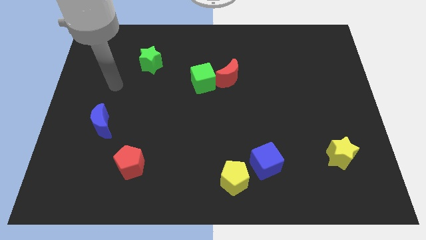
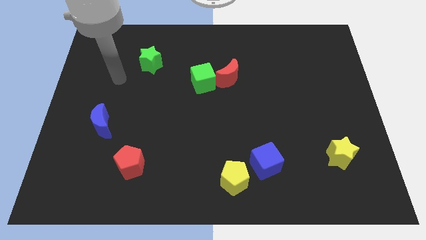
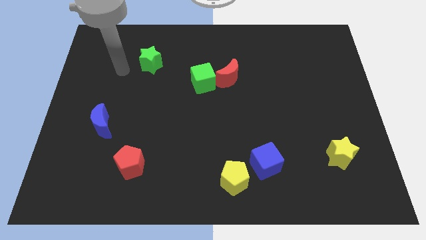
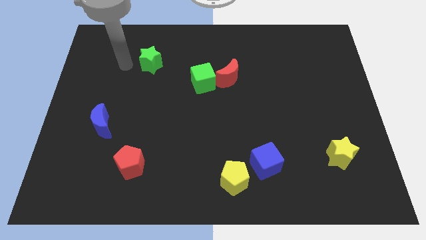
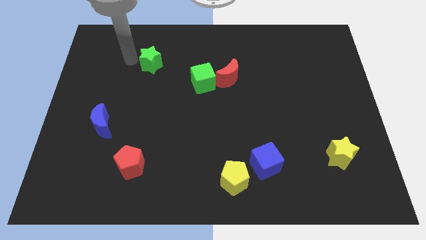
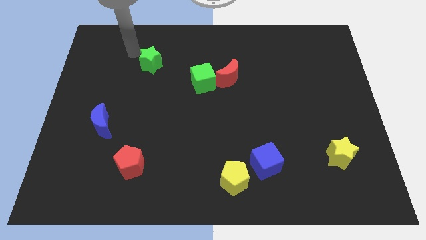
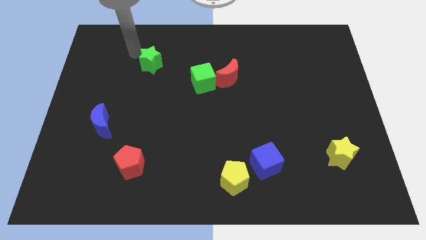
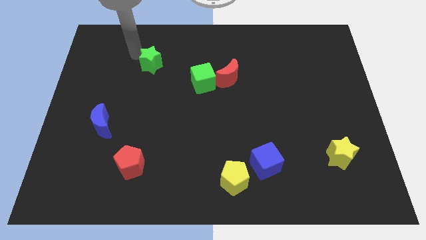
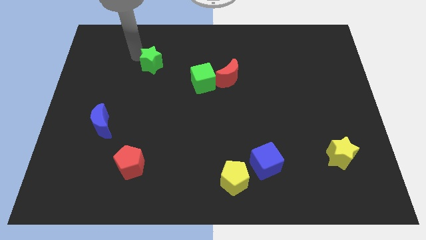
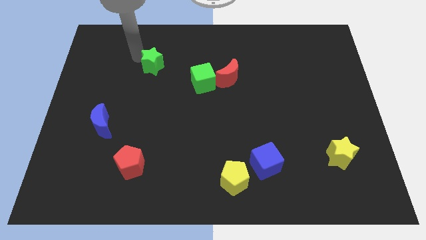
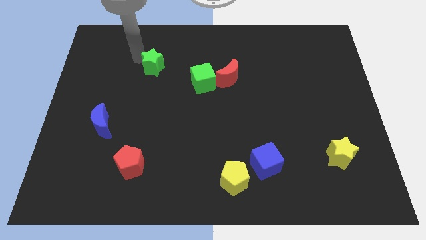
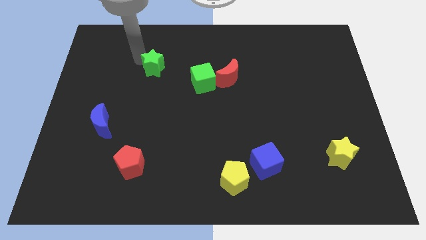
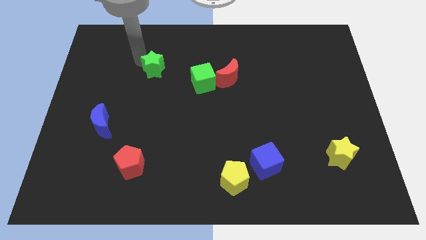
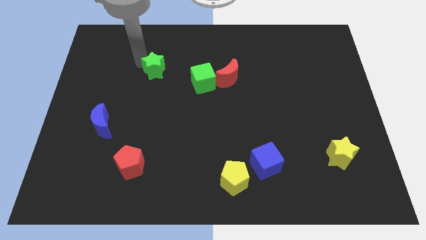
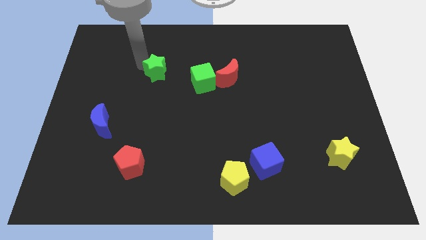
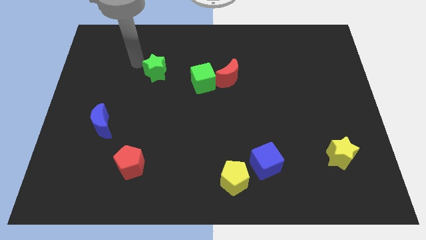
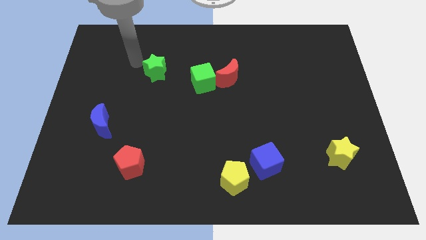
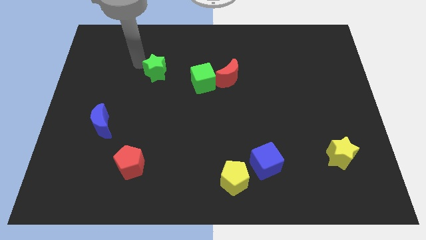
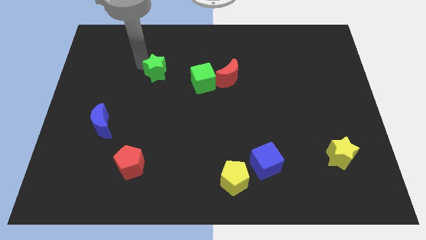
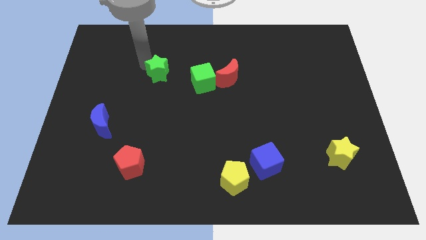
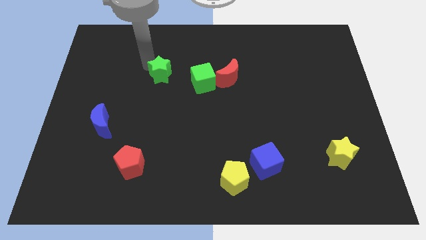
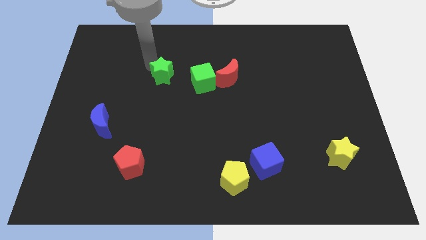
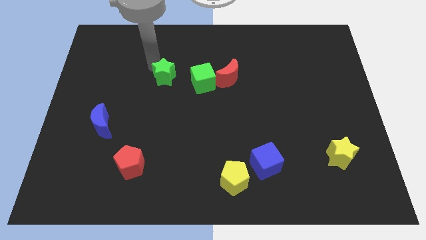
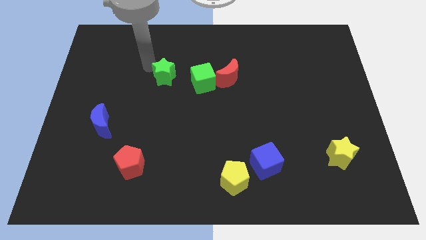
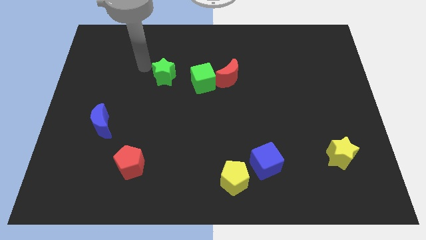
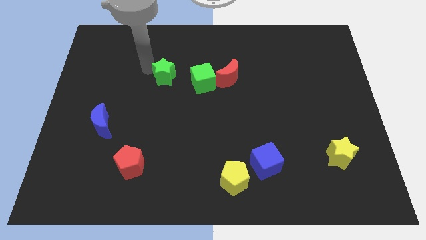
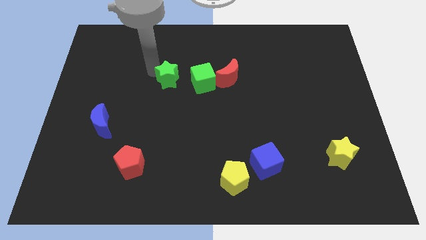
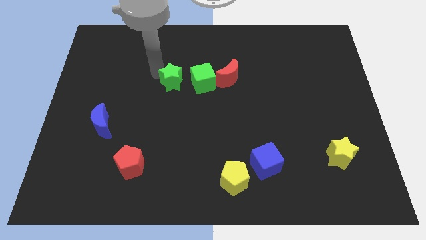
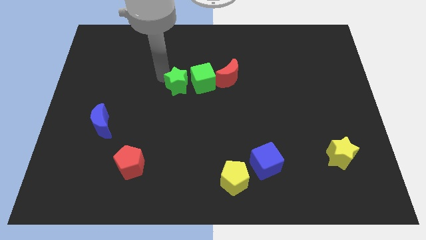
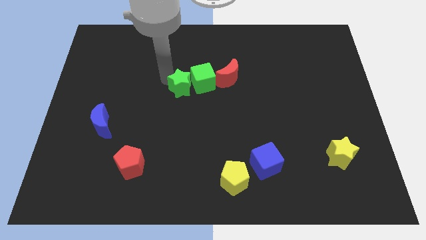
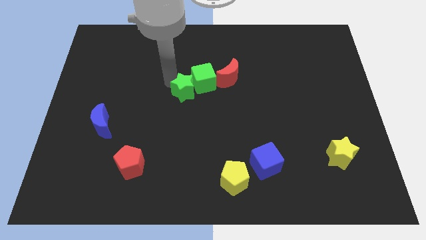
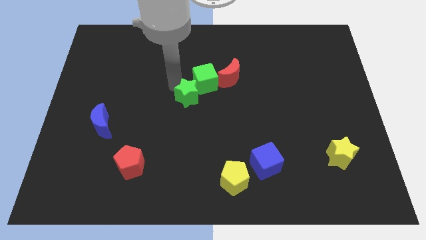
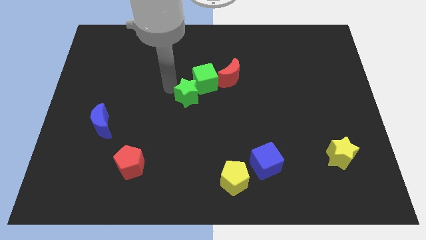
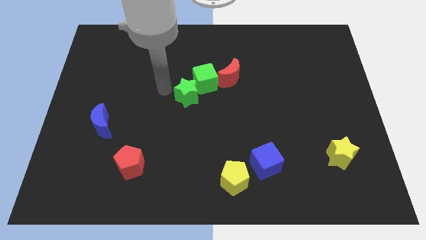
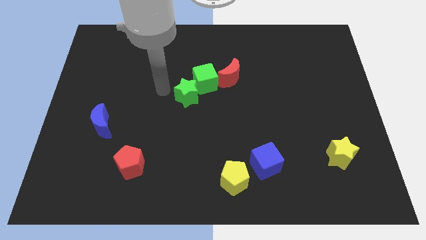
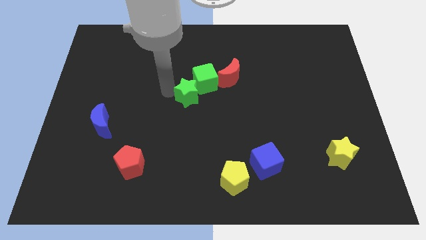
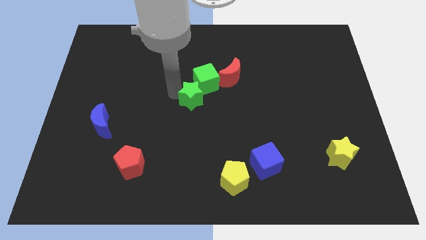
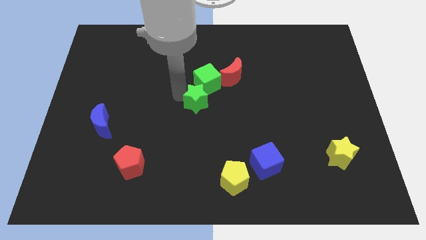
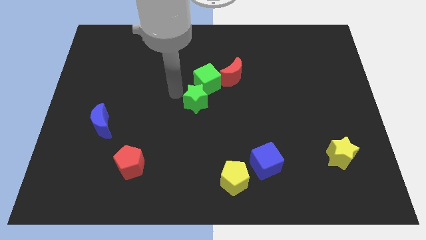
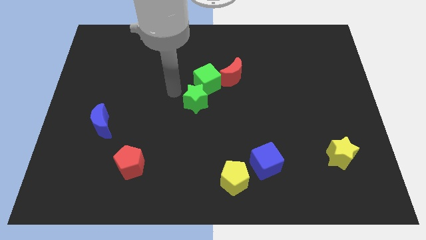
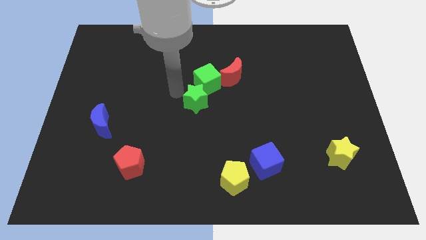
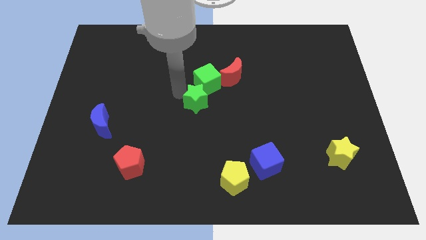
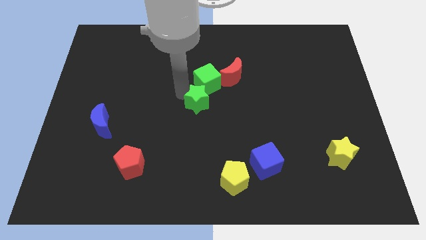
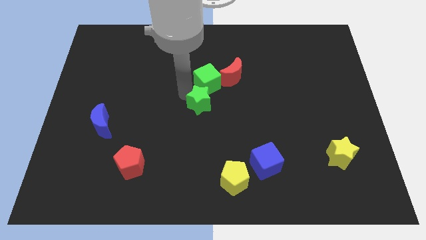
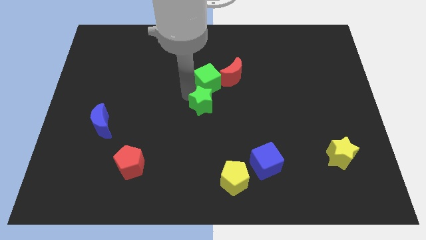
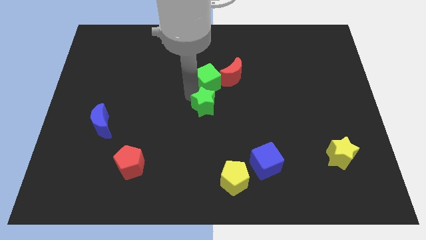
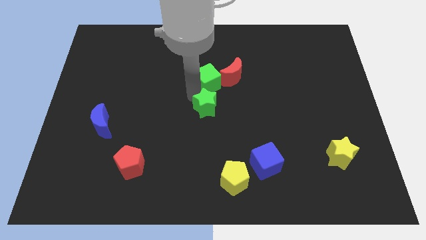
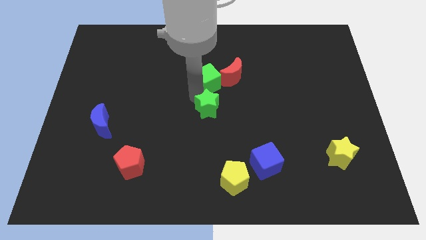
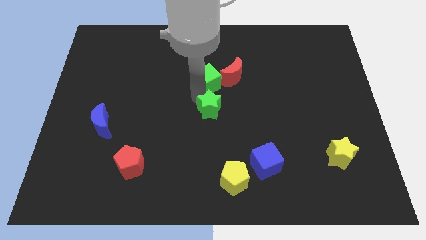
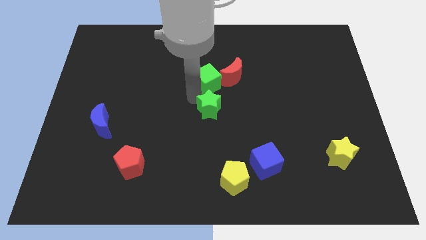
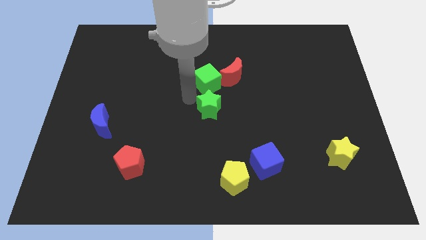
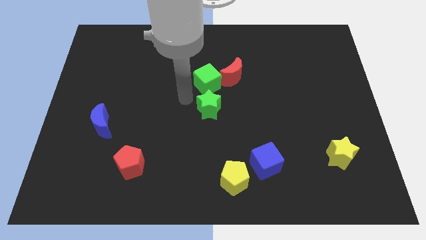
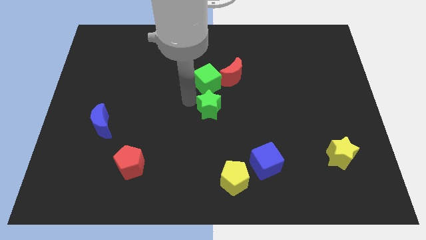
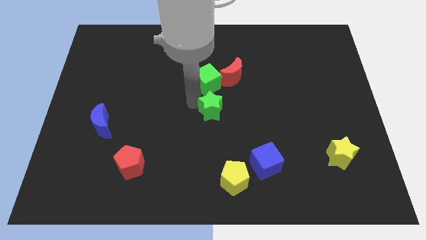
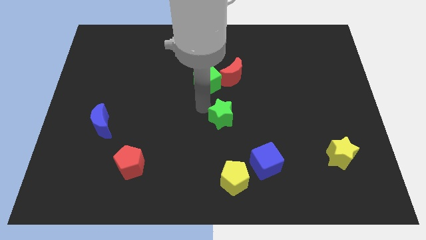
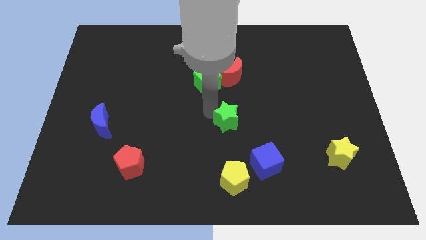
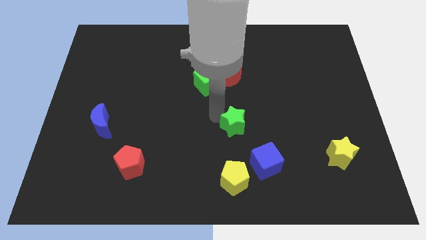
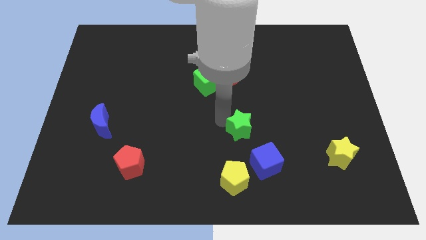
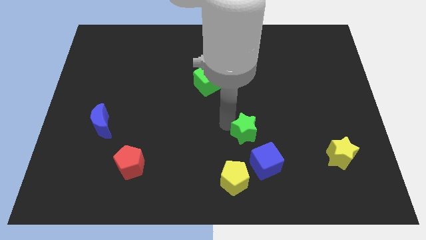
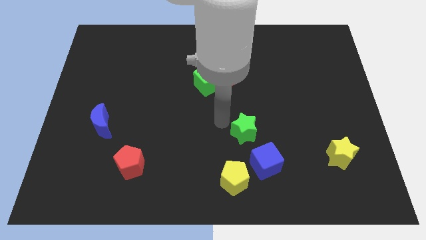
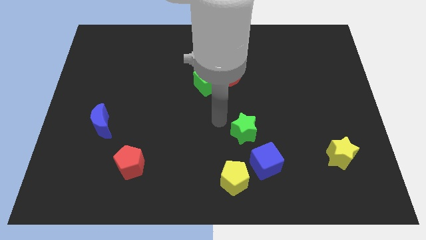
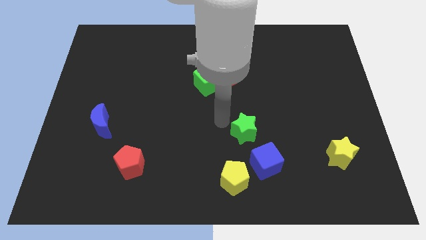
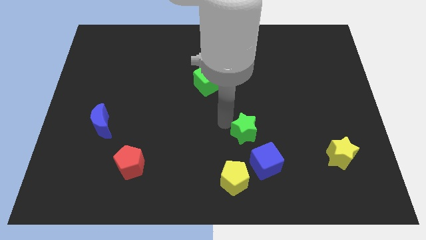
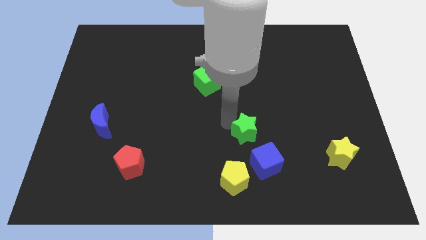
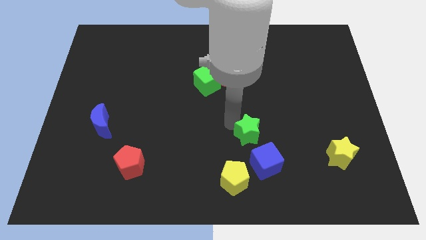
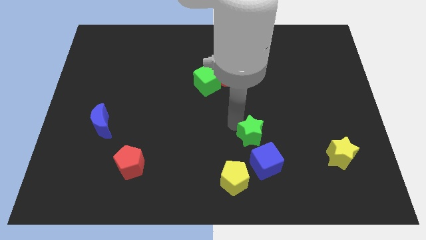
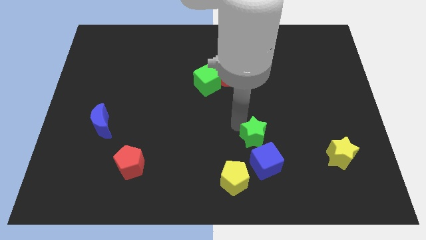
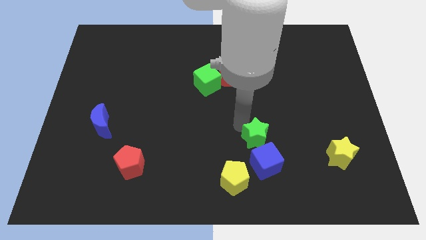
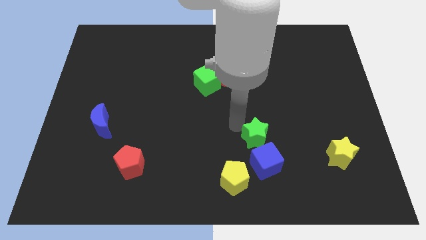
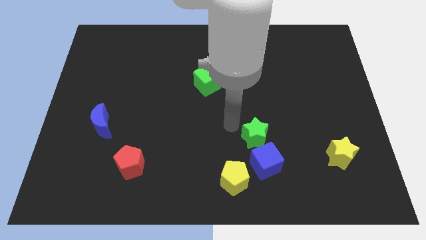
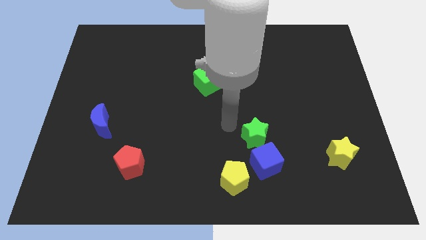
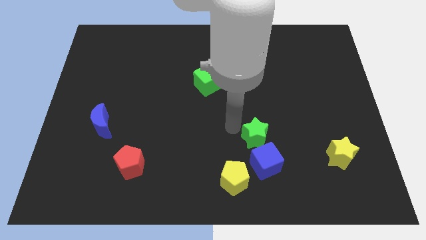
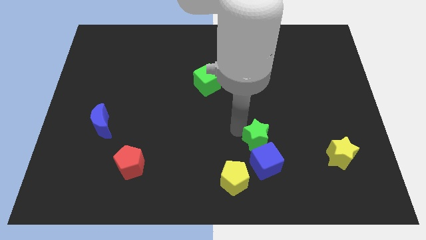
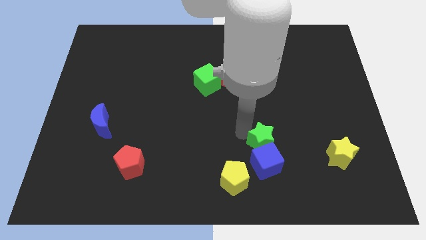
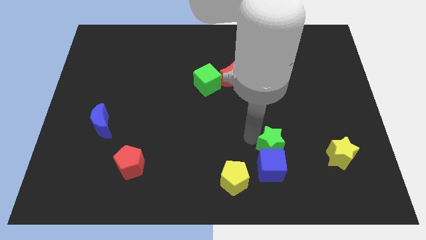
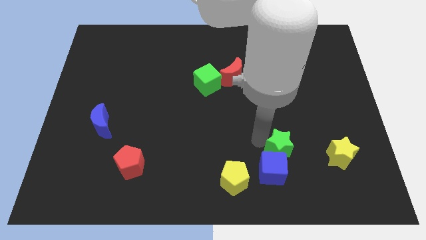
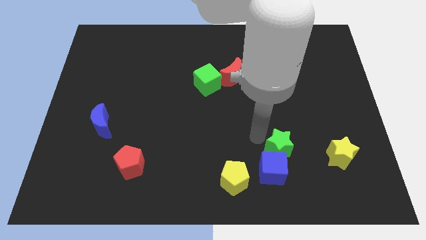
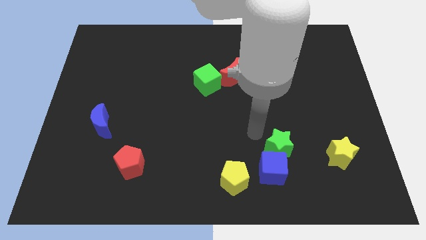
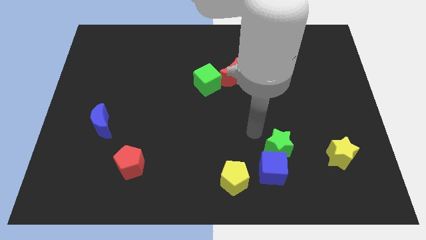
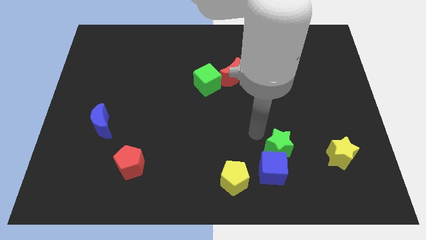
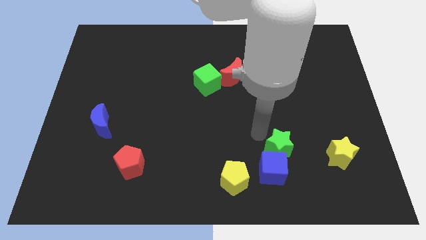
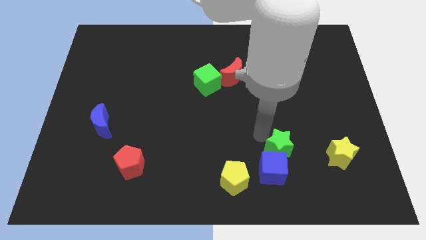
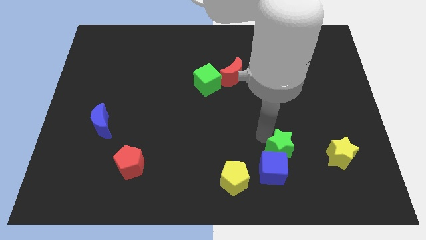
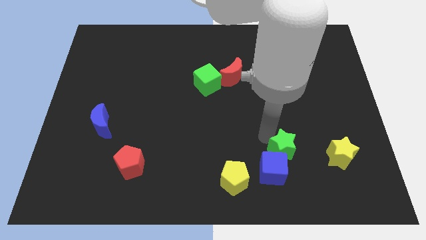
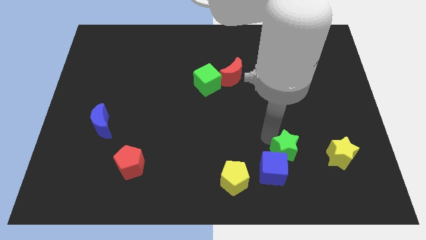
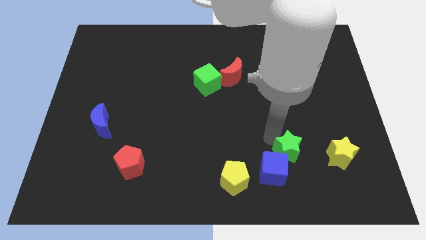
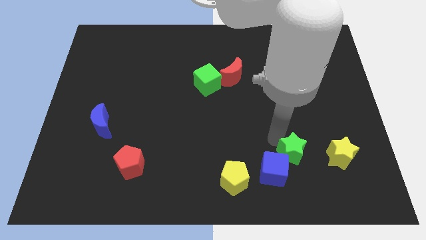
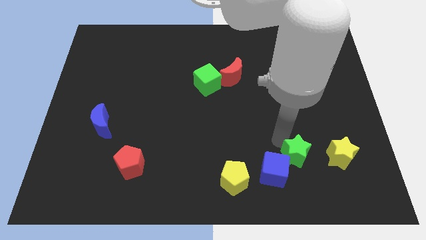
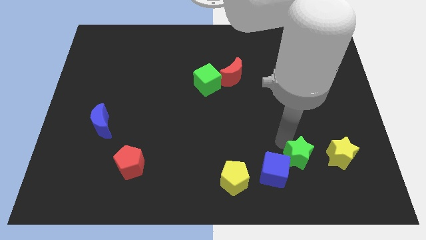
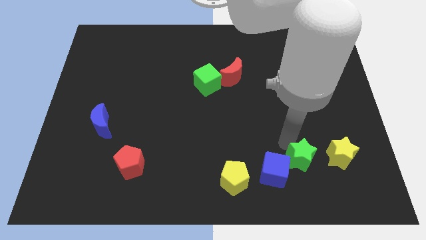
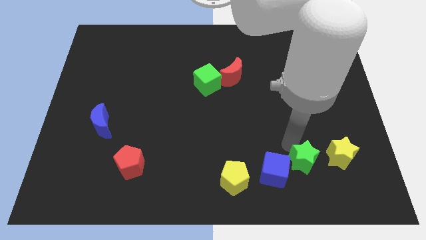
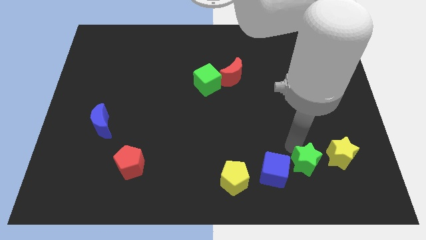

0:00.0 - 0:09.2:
move the green star to the bottom left of the yellow star
